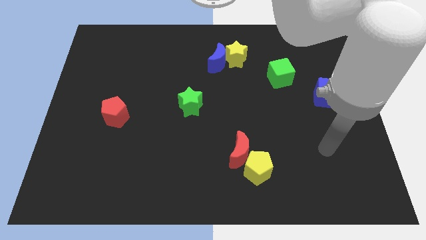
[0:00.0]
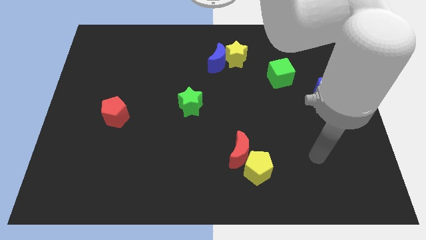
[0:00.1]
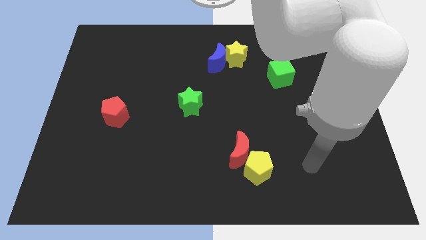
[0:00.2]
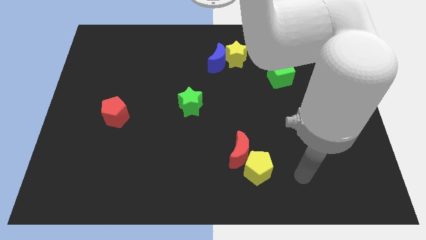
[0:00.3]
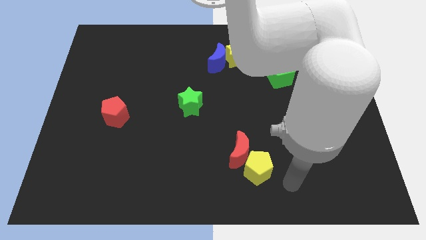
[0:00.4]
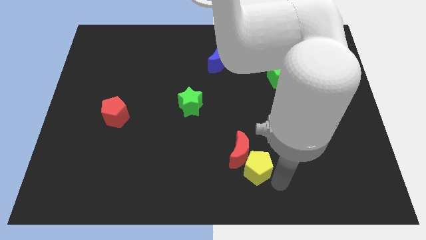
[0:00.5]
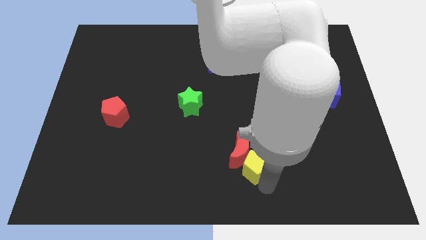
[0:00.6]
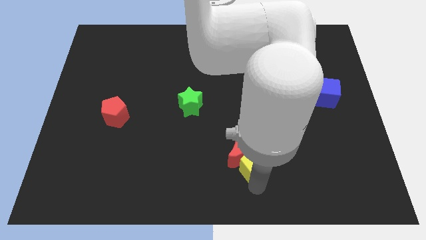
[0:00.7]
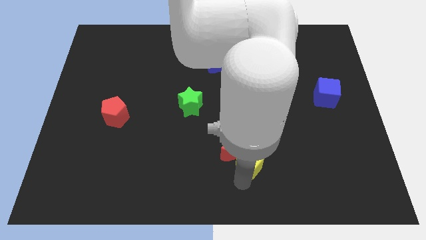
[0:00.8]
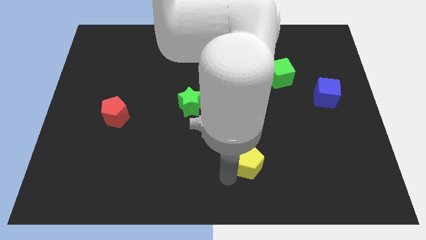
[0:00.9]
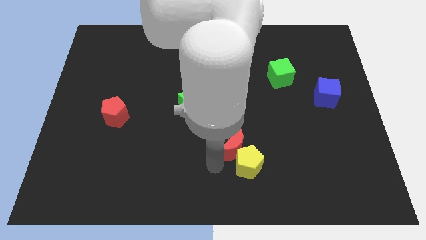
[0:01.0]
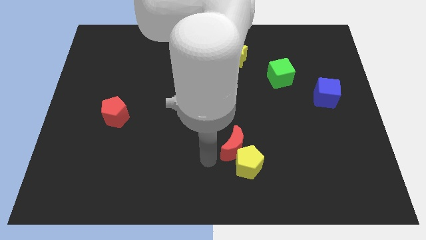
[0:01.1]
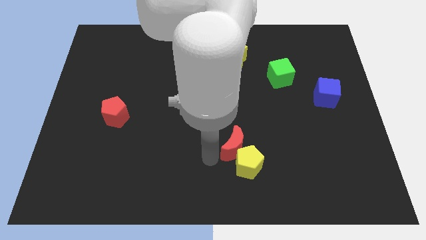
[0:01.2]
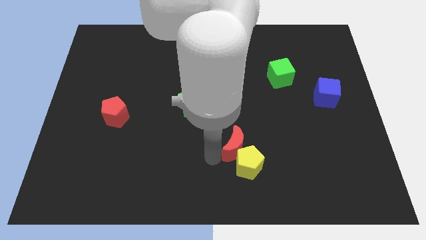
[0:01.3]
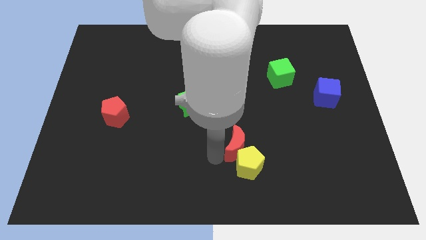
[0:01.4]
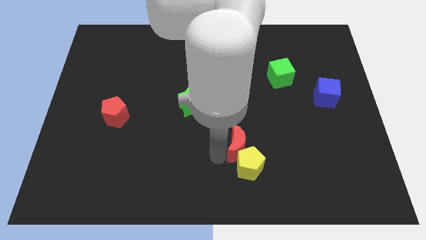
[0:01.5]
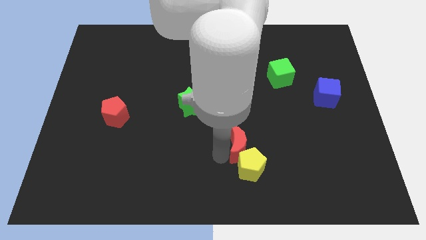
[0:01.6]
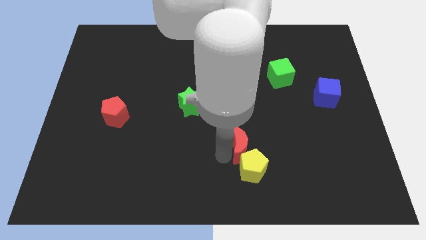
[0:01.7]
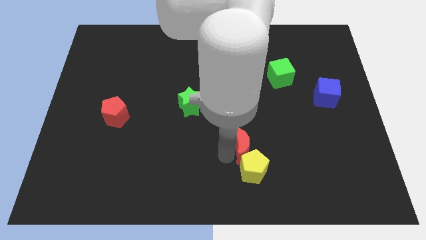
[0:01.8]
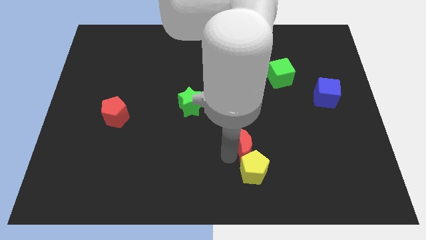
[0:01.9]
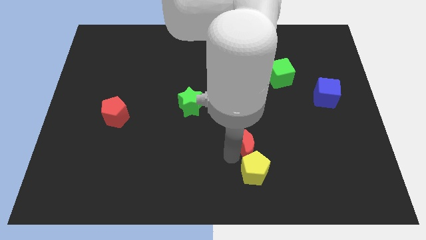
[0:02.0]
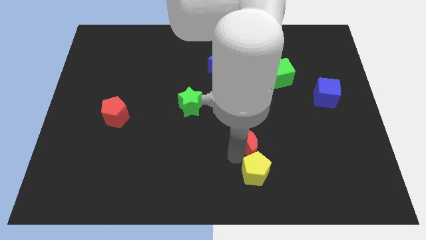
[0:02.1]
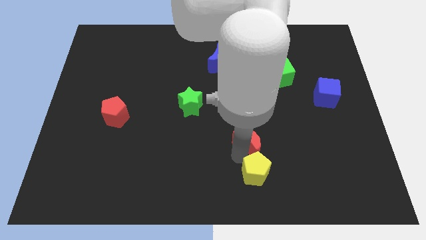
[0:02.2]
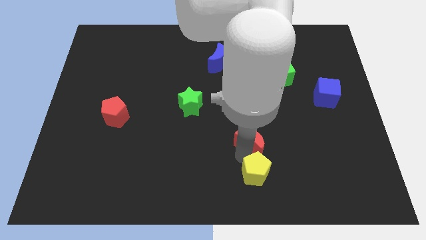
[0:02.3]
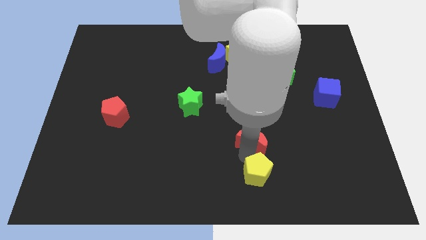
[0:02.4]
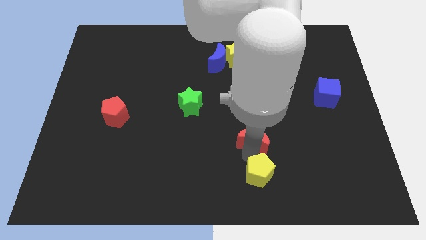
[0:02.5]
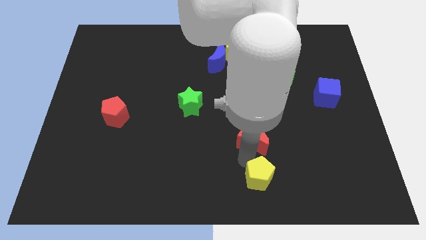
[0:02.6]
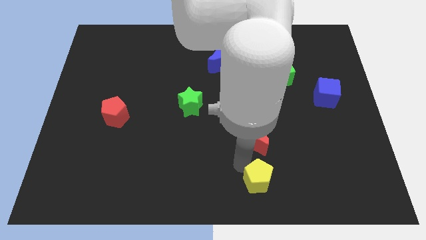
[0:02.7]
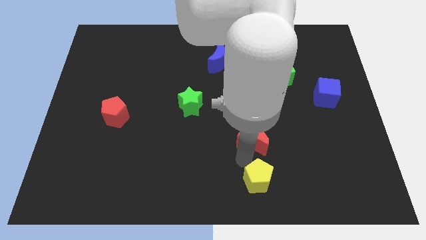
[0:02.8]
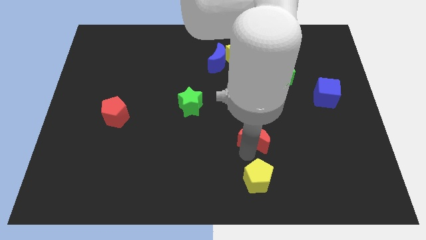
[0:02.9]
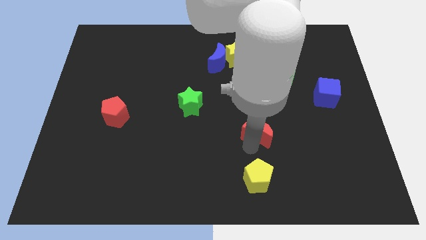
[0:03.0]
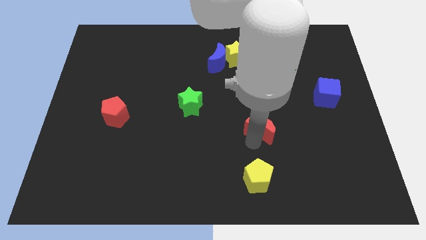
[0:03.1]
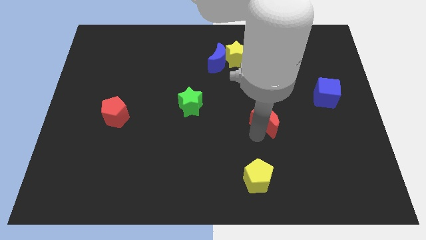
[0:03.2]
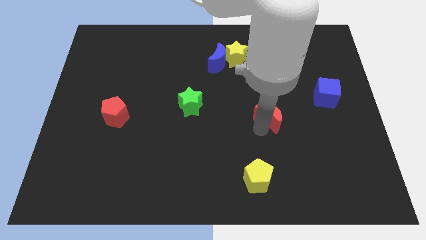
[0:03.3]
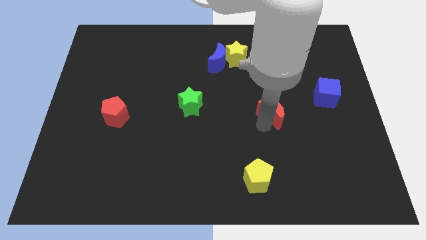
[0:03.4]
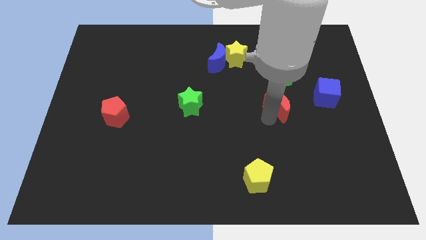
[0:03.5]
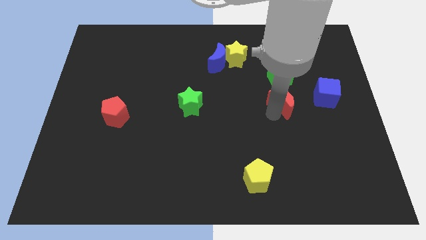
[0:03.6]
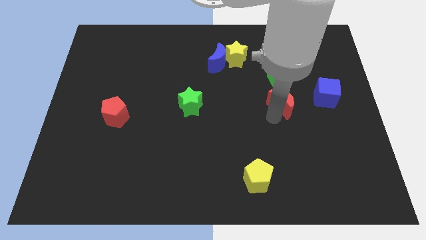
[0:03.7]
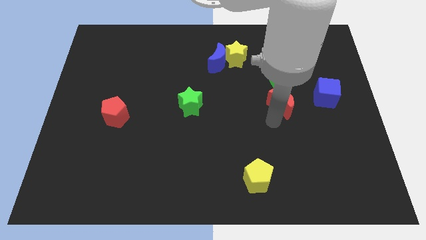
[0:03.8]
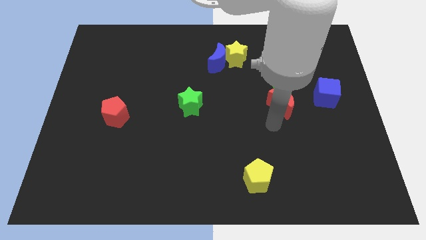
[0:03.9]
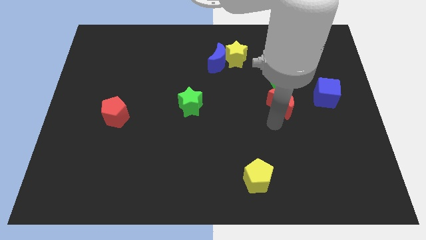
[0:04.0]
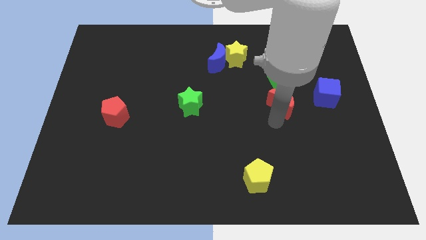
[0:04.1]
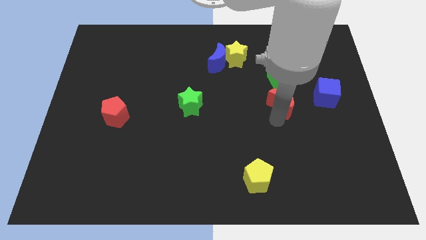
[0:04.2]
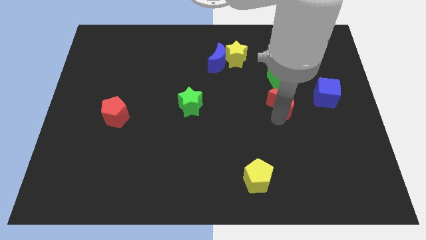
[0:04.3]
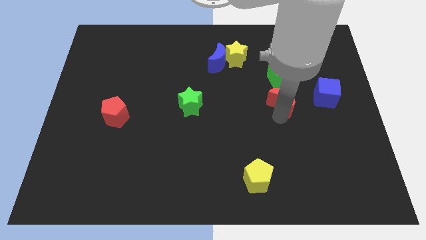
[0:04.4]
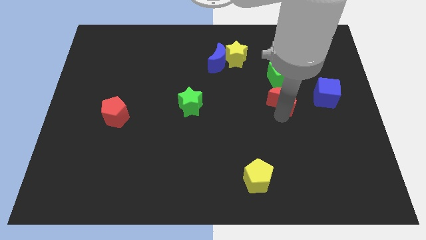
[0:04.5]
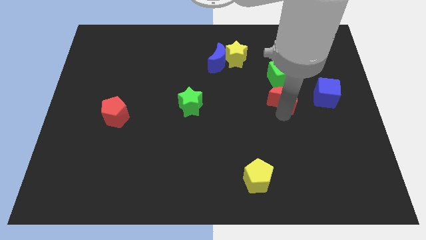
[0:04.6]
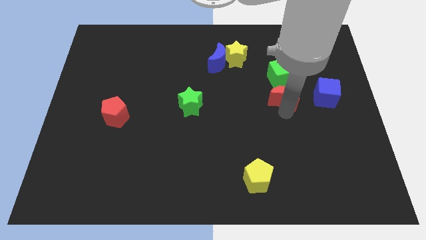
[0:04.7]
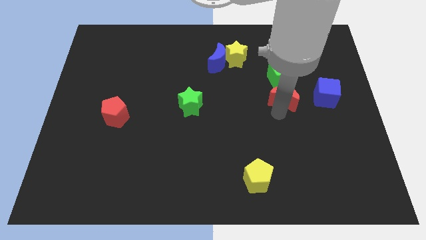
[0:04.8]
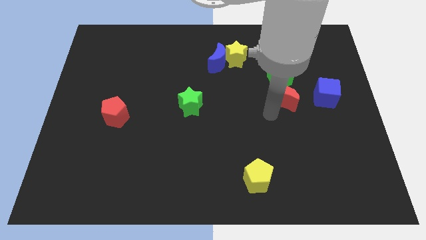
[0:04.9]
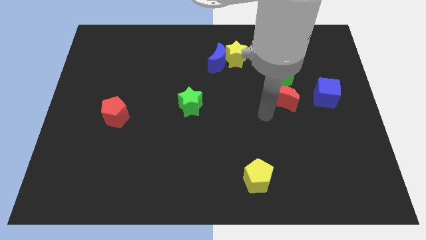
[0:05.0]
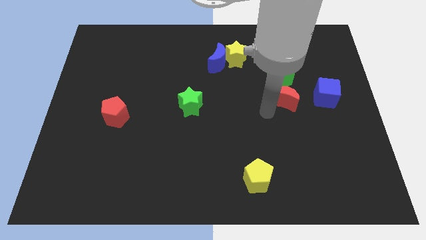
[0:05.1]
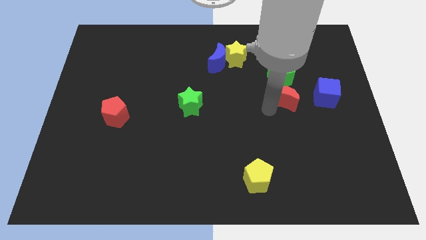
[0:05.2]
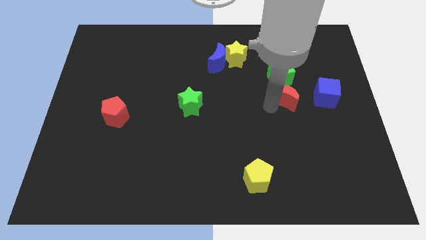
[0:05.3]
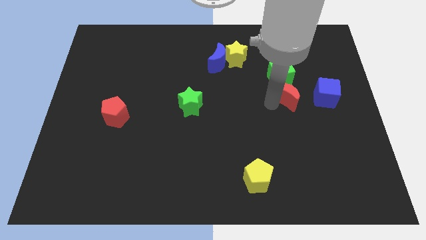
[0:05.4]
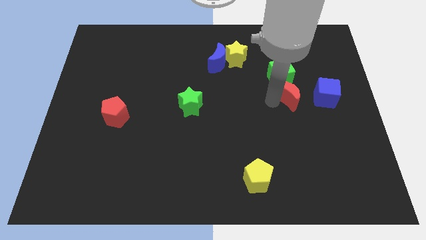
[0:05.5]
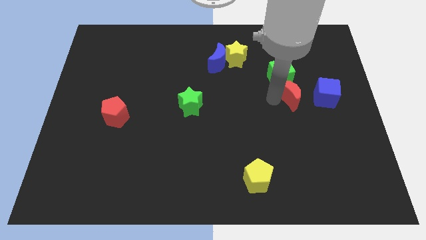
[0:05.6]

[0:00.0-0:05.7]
slide the red moon upwards and to the right diagonally

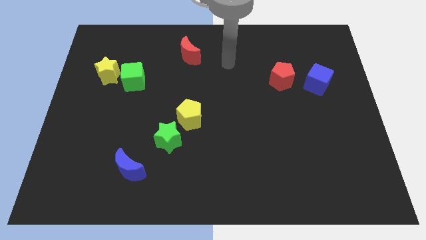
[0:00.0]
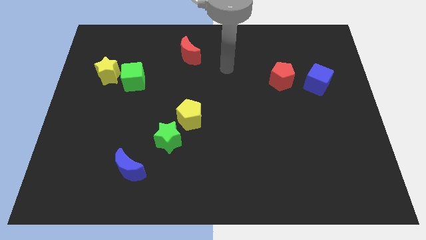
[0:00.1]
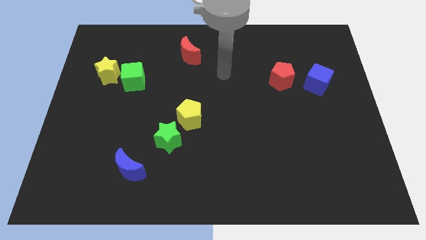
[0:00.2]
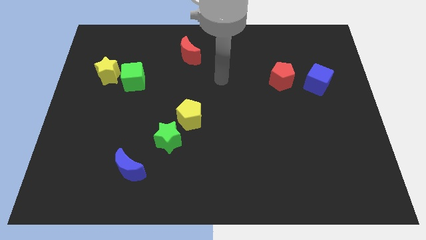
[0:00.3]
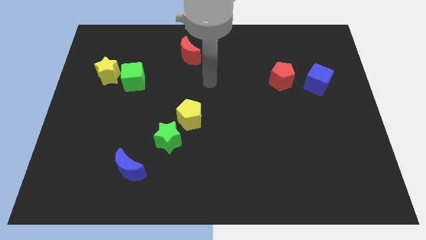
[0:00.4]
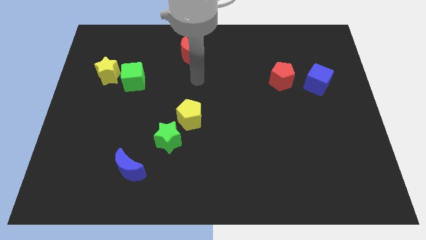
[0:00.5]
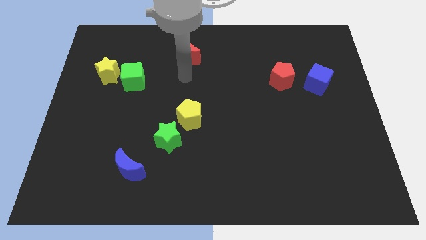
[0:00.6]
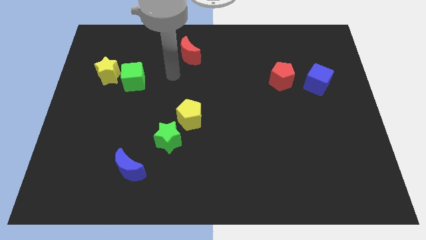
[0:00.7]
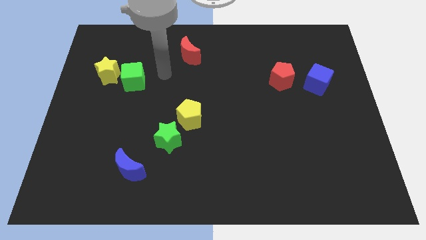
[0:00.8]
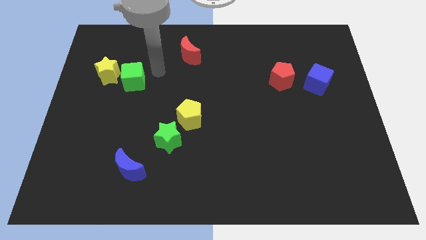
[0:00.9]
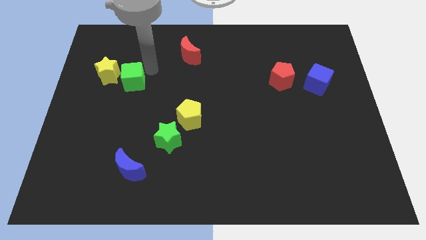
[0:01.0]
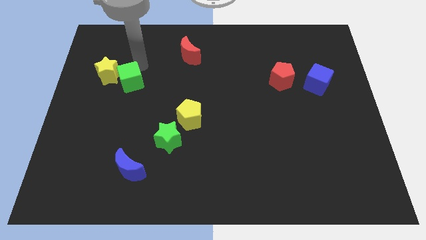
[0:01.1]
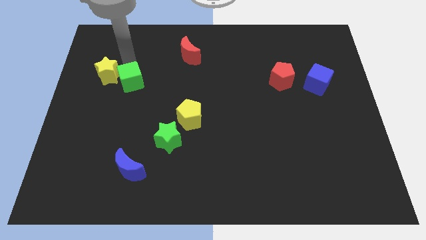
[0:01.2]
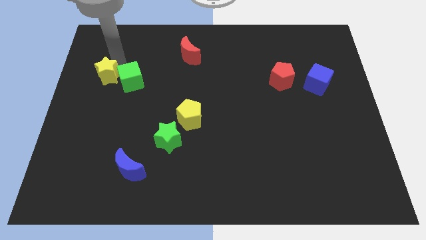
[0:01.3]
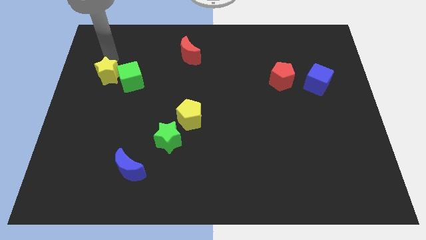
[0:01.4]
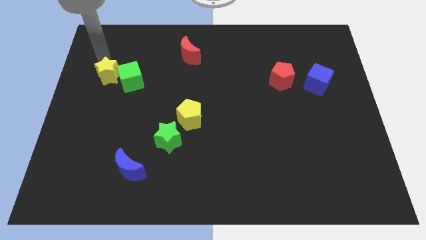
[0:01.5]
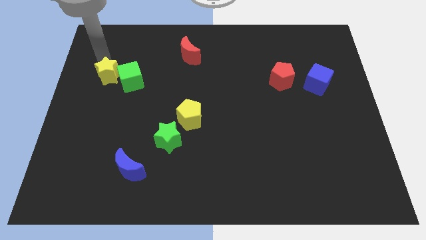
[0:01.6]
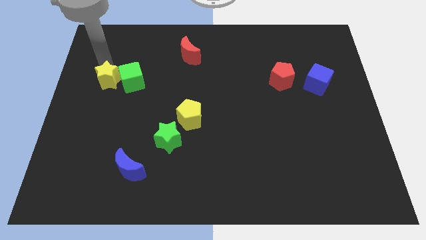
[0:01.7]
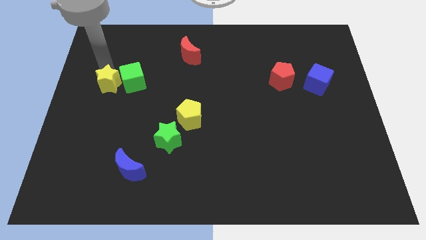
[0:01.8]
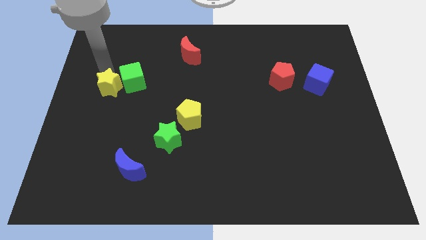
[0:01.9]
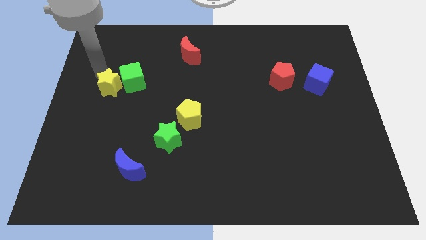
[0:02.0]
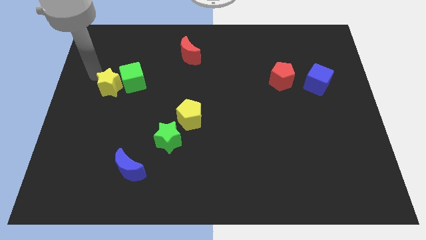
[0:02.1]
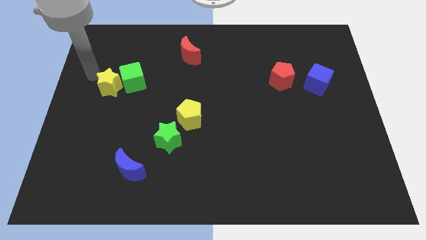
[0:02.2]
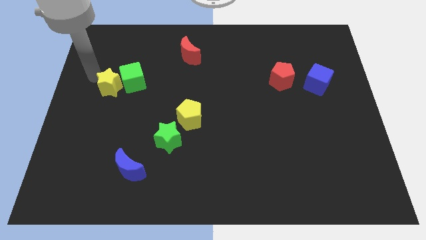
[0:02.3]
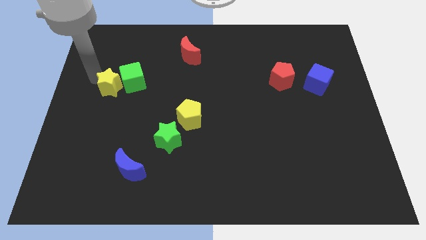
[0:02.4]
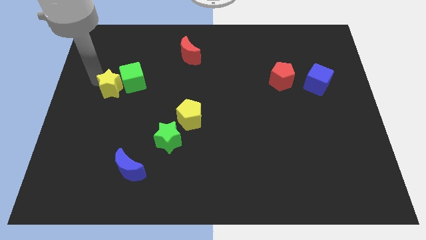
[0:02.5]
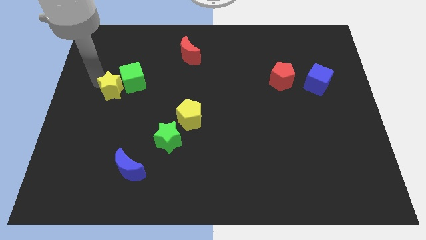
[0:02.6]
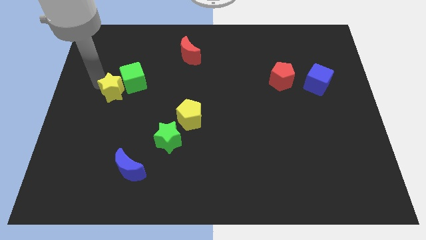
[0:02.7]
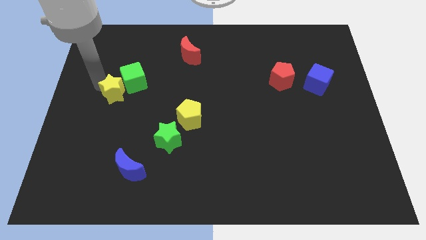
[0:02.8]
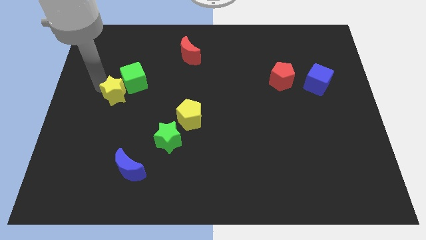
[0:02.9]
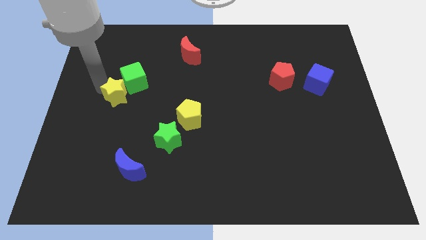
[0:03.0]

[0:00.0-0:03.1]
move the yellow star somewhat downwards and then to the right
